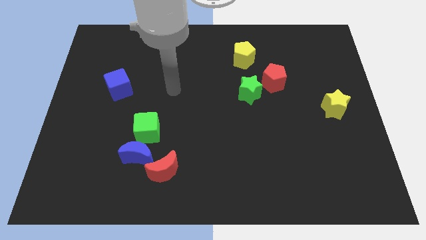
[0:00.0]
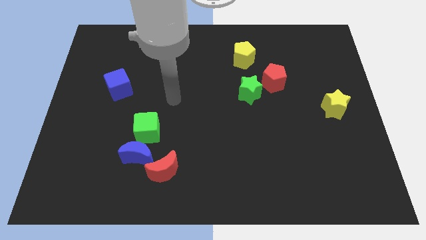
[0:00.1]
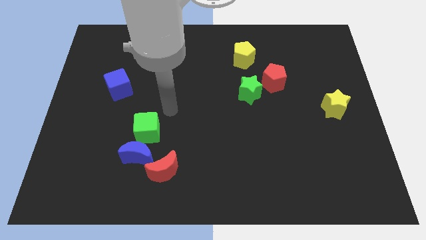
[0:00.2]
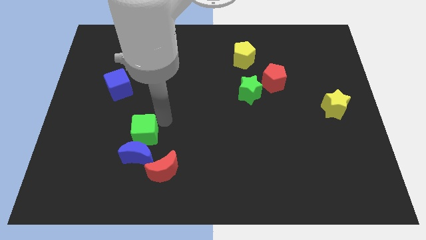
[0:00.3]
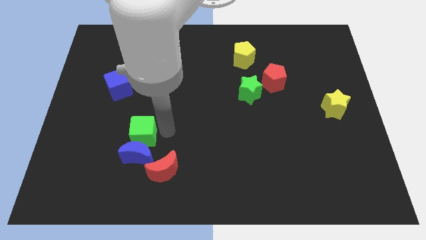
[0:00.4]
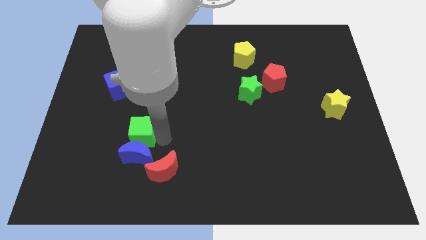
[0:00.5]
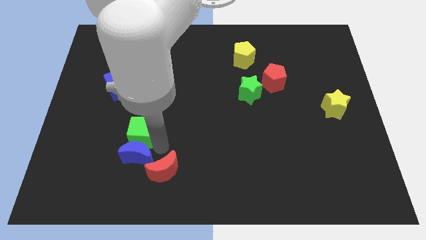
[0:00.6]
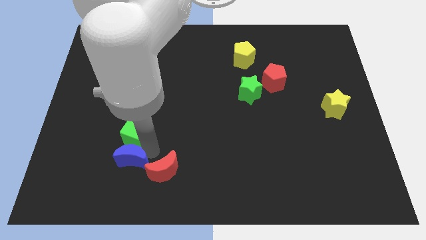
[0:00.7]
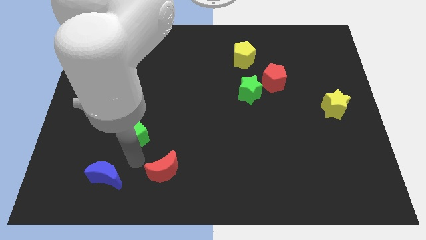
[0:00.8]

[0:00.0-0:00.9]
separate the green cube from the blue moon

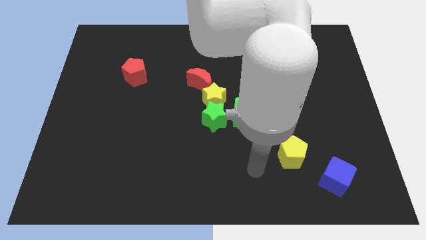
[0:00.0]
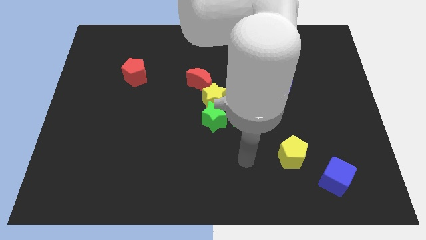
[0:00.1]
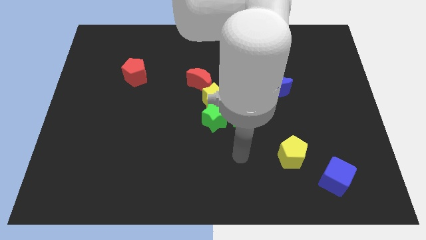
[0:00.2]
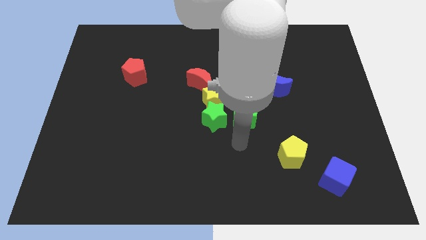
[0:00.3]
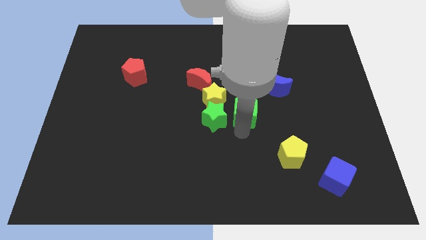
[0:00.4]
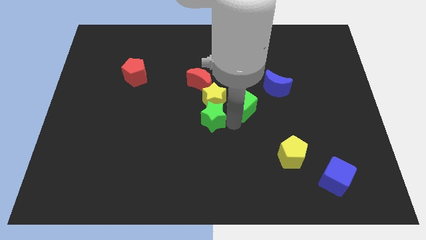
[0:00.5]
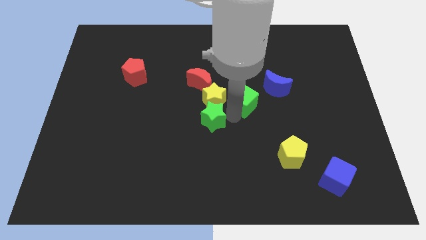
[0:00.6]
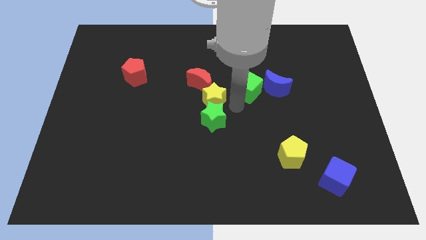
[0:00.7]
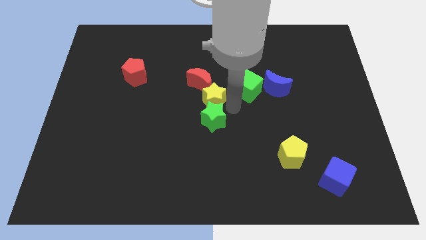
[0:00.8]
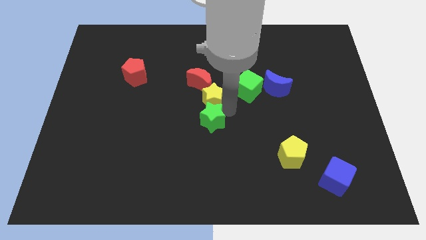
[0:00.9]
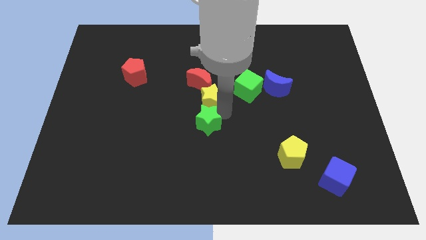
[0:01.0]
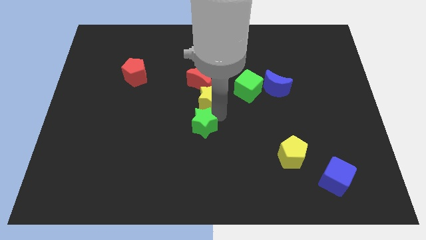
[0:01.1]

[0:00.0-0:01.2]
separate the green star from the yellow star and green cube

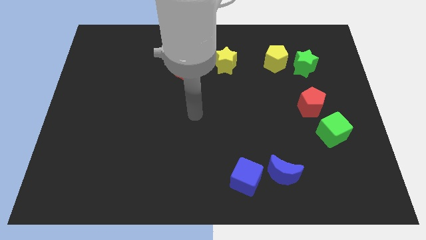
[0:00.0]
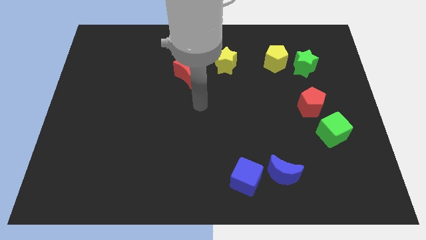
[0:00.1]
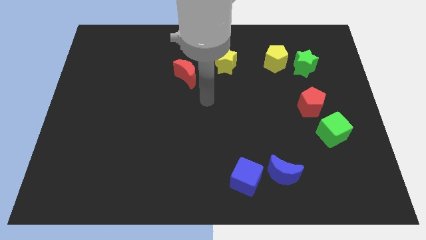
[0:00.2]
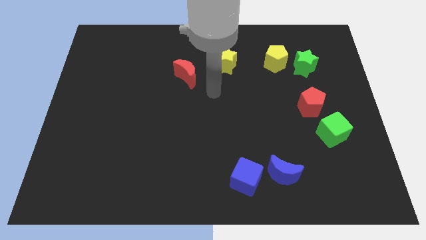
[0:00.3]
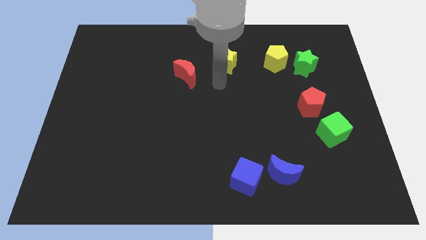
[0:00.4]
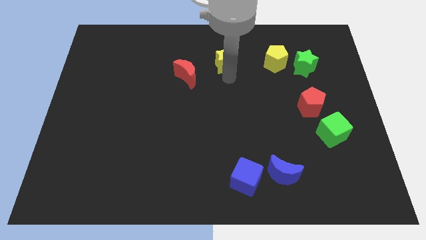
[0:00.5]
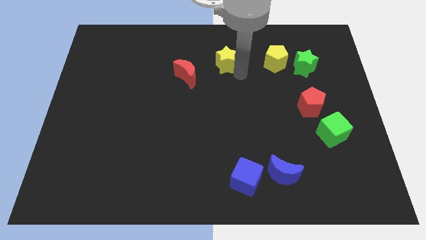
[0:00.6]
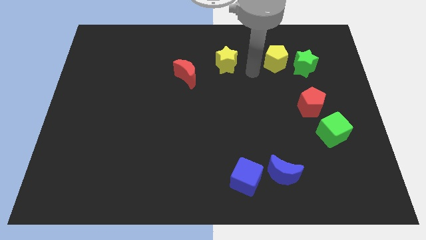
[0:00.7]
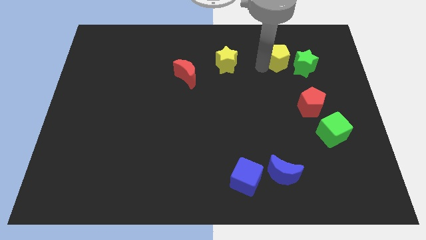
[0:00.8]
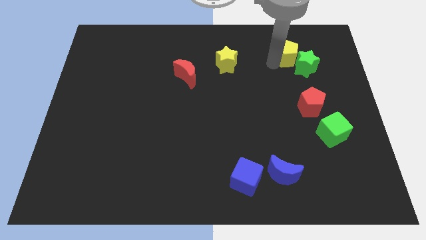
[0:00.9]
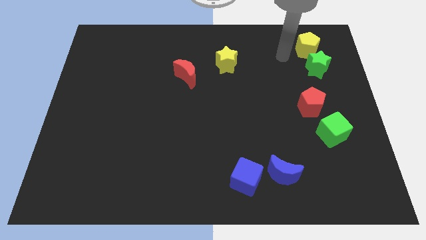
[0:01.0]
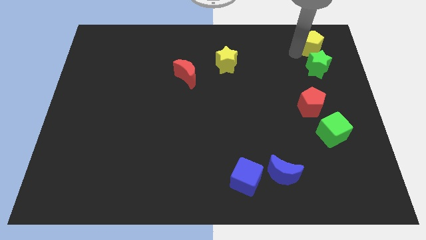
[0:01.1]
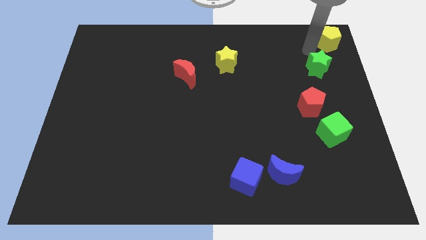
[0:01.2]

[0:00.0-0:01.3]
pull the green star apart from the yellow pentagon

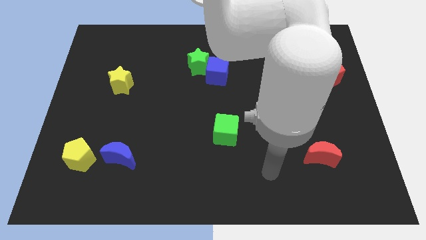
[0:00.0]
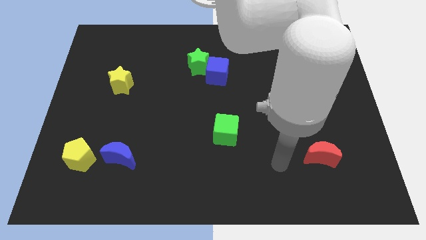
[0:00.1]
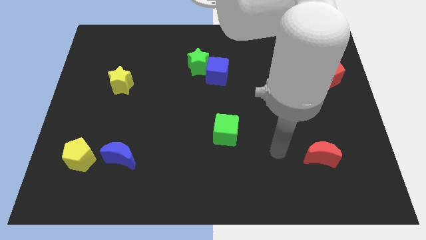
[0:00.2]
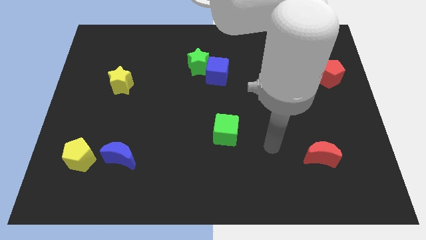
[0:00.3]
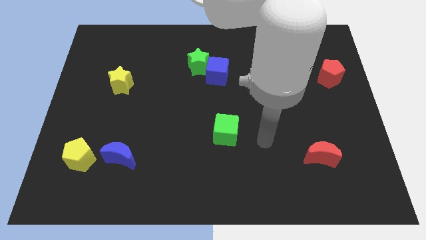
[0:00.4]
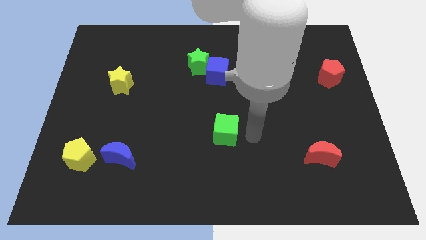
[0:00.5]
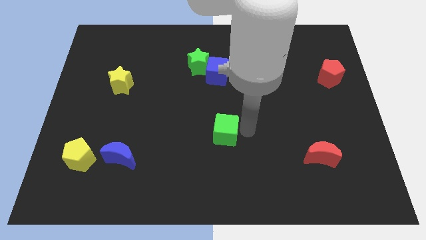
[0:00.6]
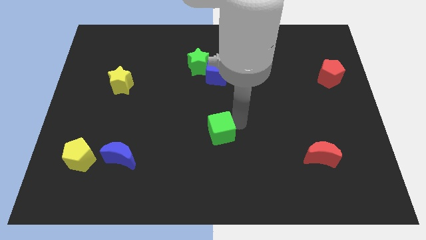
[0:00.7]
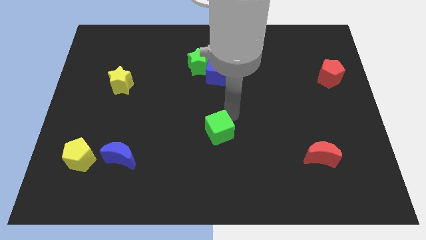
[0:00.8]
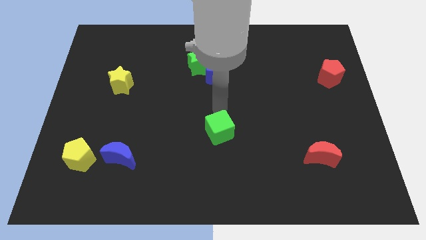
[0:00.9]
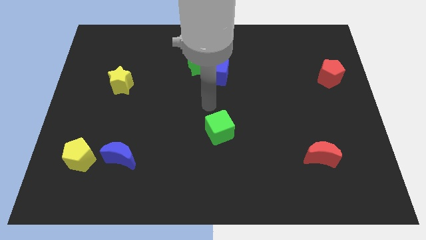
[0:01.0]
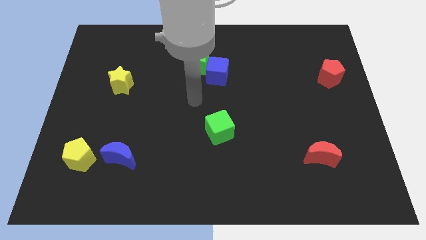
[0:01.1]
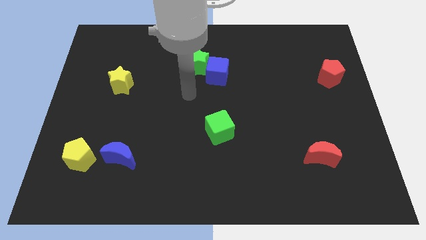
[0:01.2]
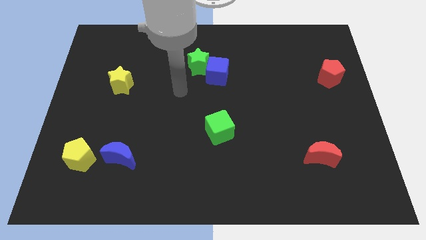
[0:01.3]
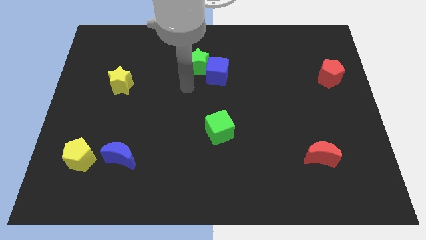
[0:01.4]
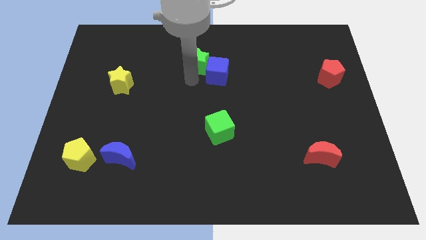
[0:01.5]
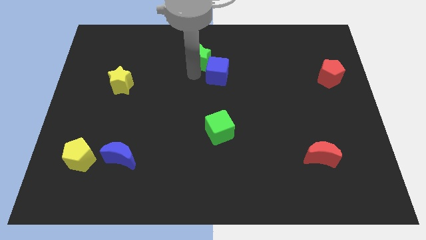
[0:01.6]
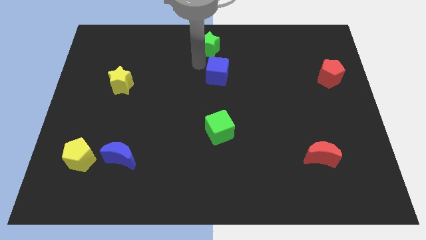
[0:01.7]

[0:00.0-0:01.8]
pull the blue cube apart from the green star

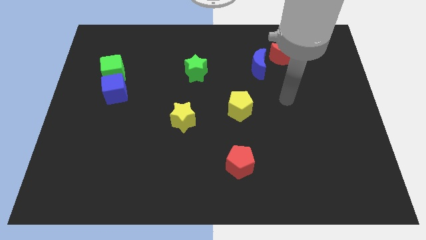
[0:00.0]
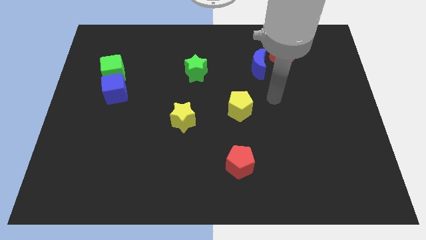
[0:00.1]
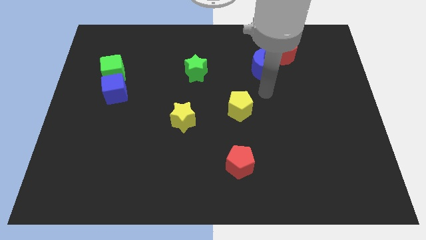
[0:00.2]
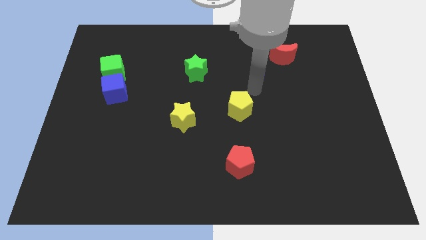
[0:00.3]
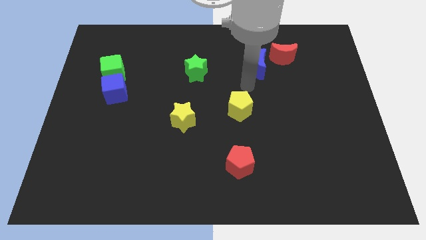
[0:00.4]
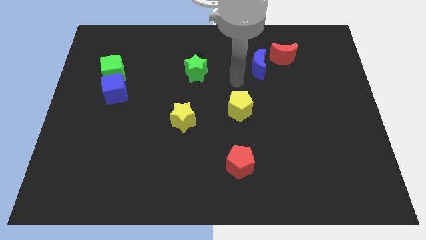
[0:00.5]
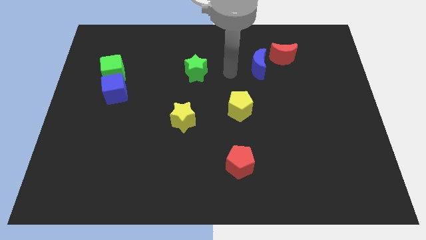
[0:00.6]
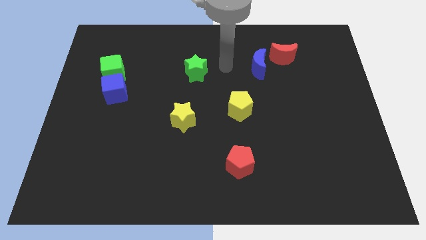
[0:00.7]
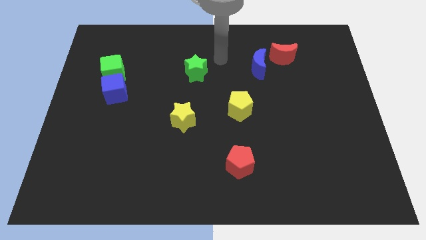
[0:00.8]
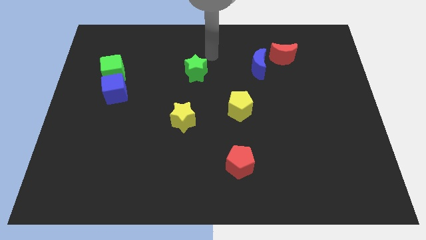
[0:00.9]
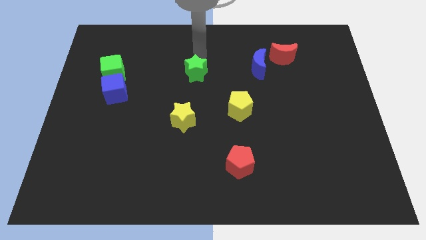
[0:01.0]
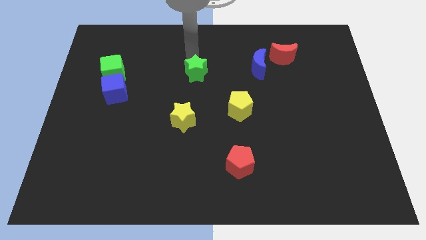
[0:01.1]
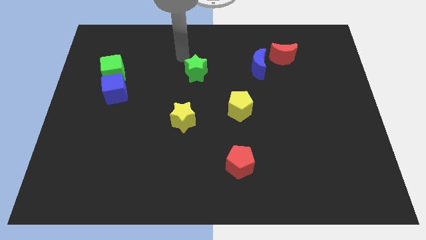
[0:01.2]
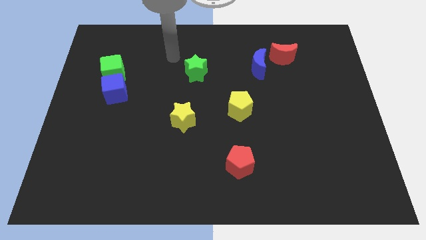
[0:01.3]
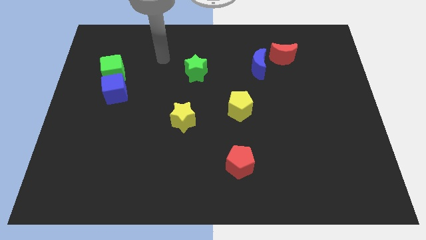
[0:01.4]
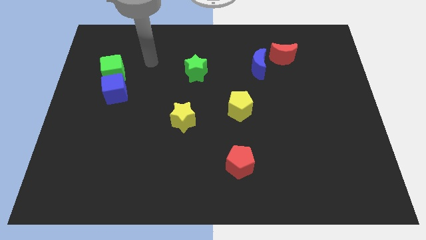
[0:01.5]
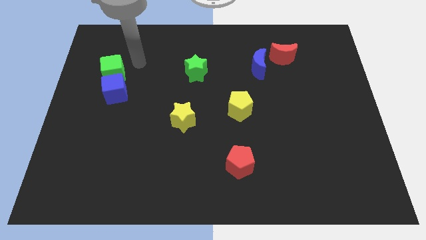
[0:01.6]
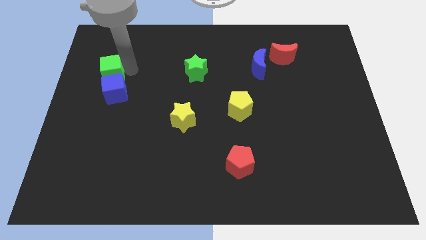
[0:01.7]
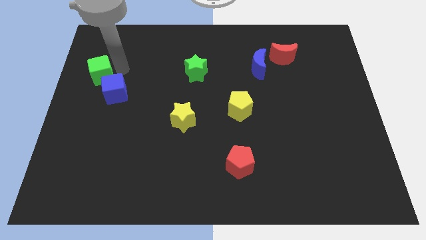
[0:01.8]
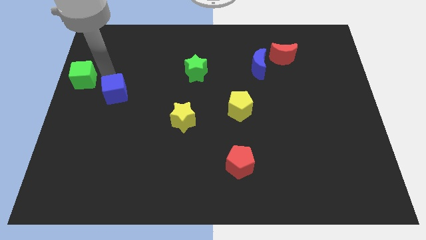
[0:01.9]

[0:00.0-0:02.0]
pull the blue cube apart from the green cube

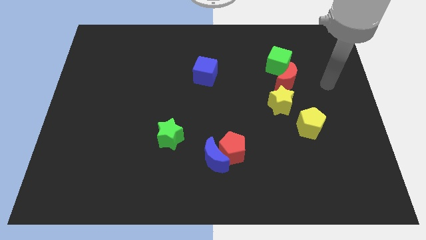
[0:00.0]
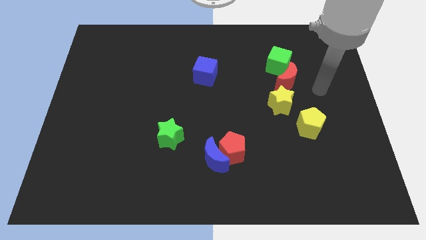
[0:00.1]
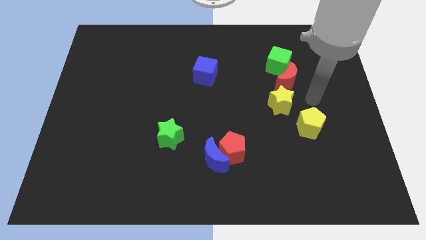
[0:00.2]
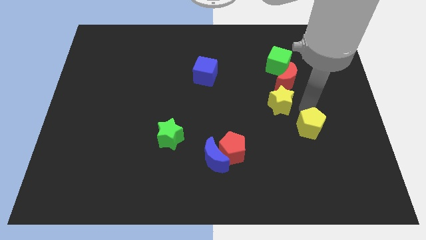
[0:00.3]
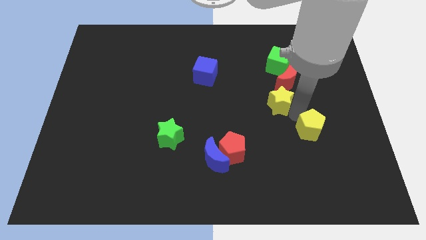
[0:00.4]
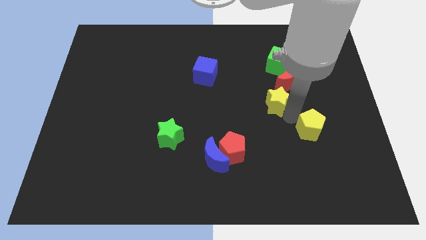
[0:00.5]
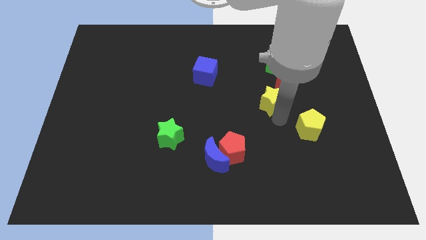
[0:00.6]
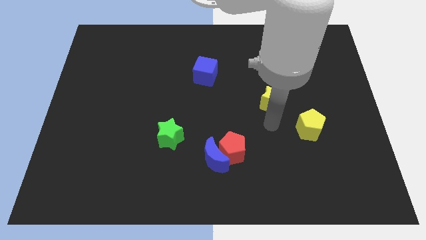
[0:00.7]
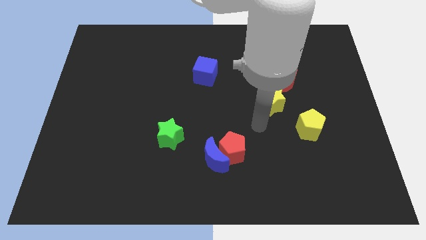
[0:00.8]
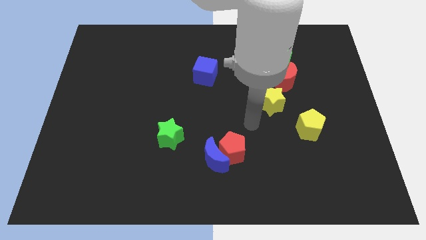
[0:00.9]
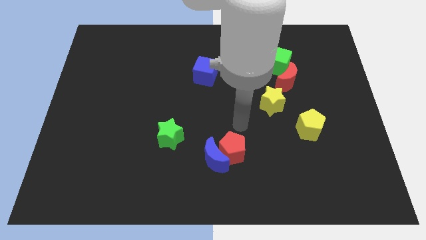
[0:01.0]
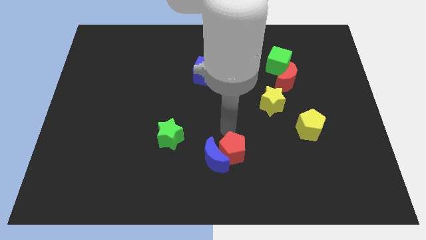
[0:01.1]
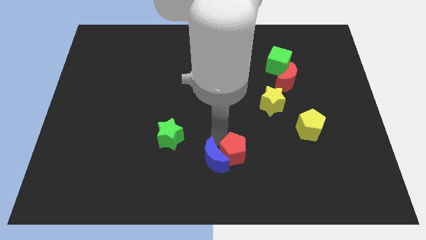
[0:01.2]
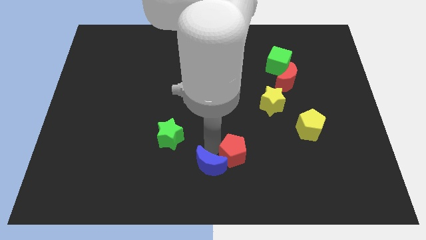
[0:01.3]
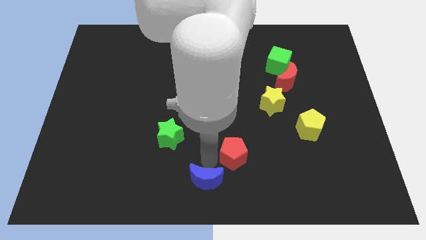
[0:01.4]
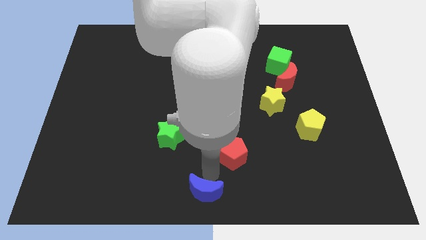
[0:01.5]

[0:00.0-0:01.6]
separate the red pentagon from the blue moon

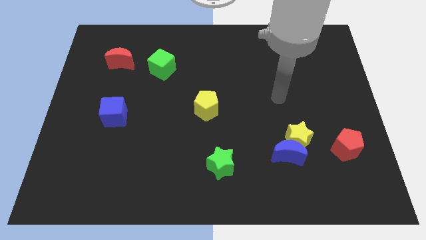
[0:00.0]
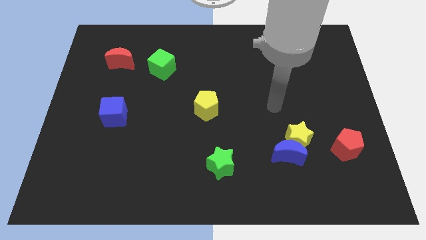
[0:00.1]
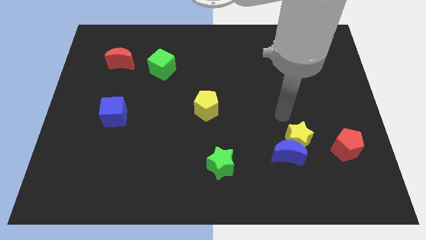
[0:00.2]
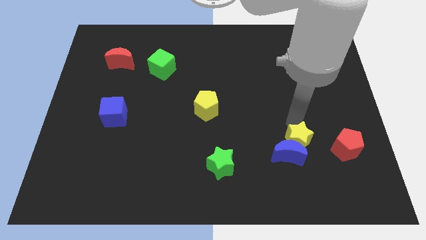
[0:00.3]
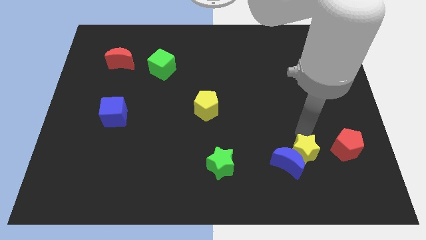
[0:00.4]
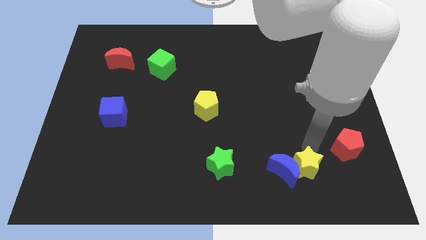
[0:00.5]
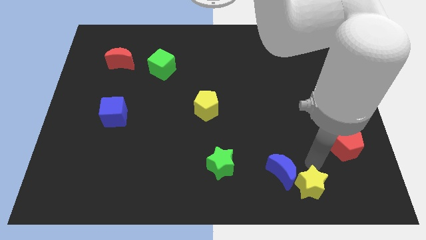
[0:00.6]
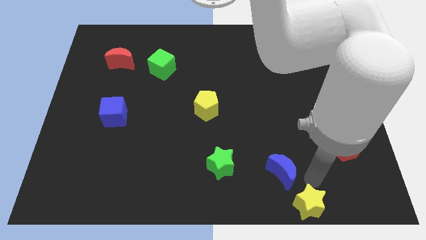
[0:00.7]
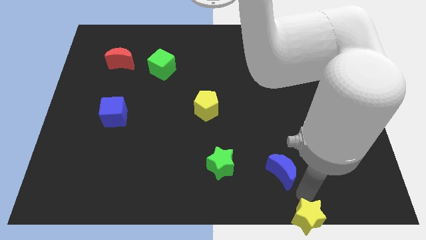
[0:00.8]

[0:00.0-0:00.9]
pull the blue moon apart from the yellow star
